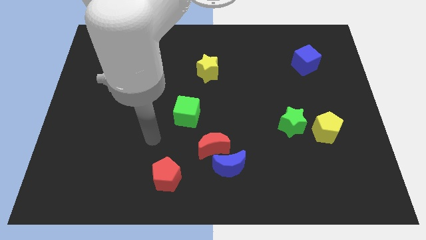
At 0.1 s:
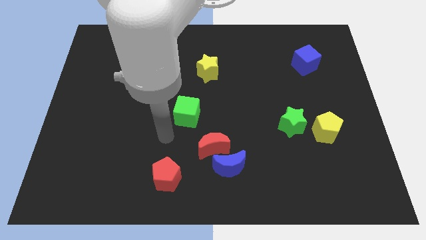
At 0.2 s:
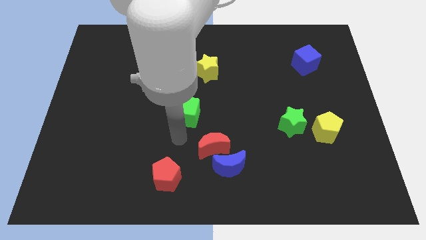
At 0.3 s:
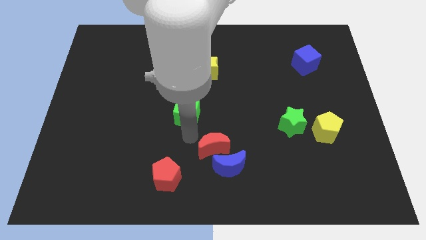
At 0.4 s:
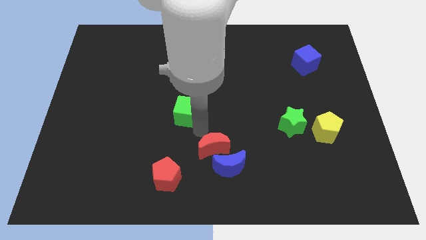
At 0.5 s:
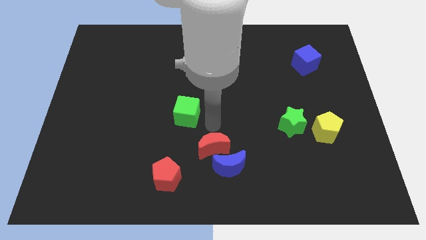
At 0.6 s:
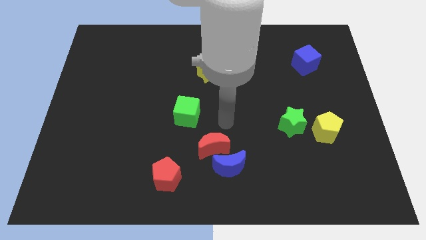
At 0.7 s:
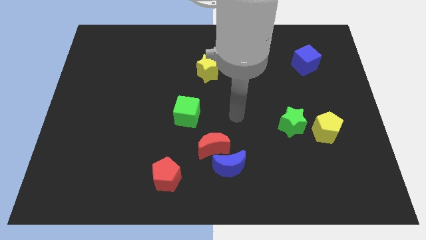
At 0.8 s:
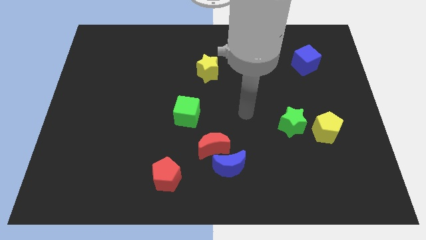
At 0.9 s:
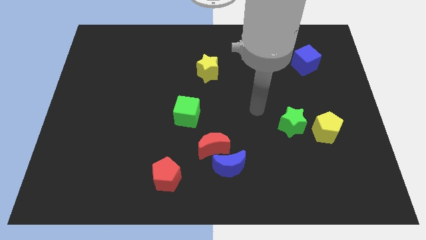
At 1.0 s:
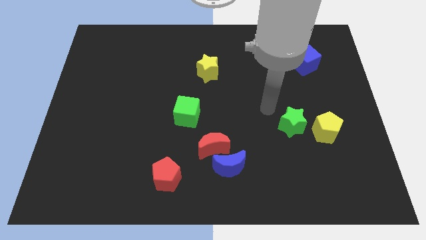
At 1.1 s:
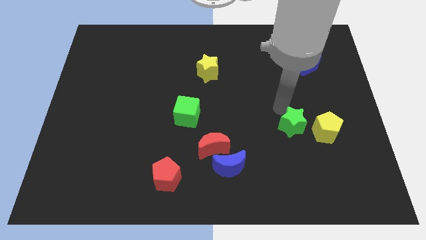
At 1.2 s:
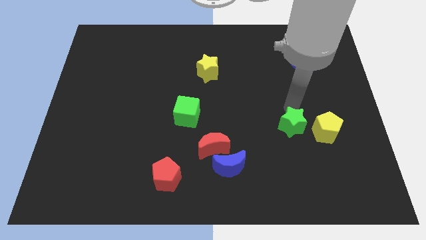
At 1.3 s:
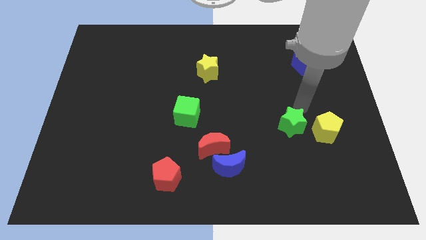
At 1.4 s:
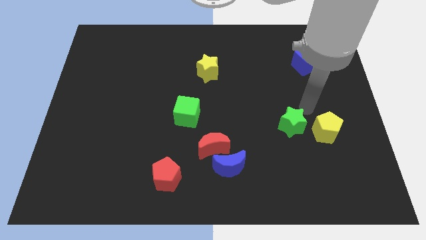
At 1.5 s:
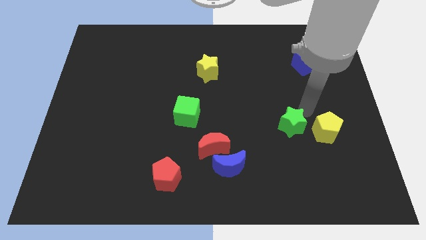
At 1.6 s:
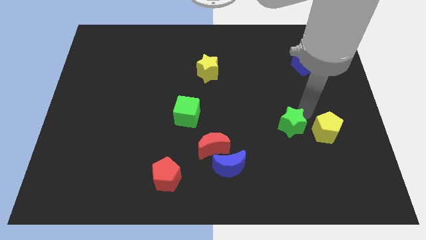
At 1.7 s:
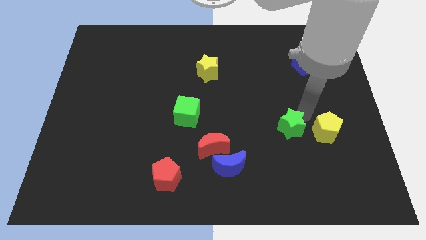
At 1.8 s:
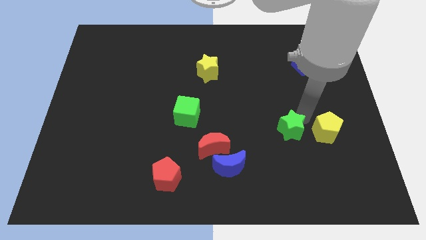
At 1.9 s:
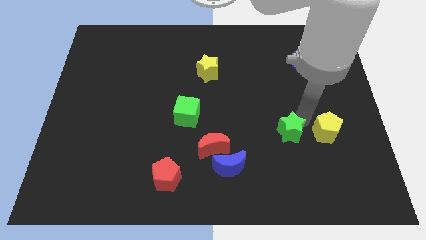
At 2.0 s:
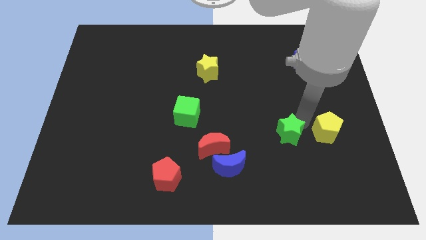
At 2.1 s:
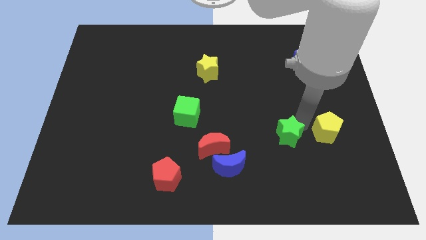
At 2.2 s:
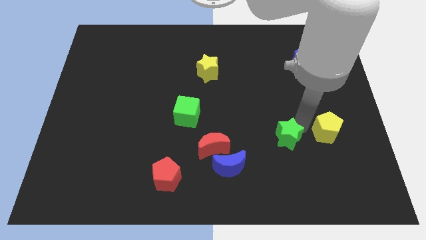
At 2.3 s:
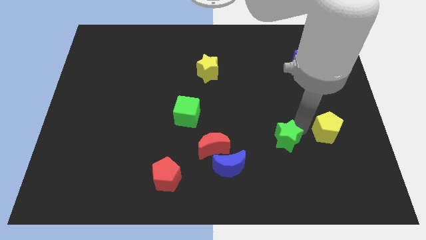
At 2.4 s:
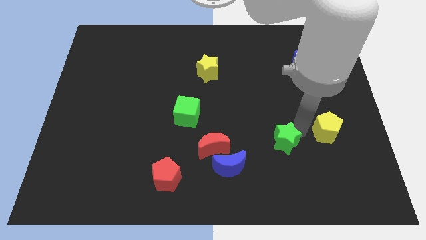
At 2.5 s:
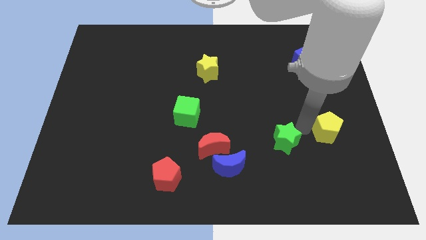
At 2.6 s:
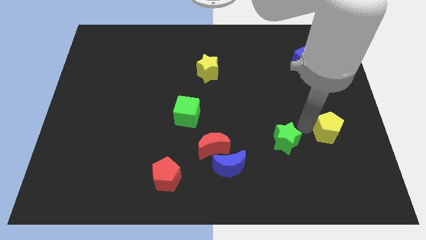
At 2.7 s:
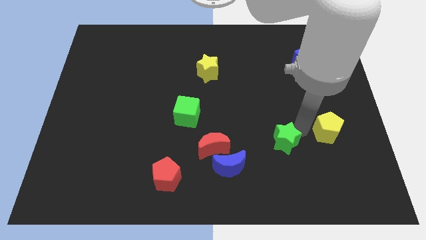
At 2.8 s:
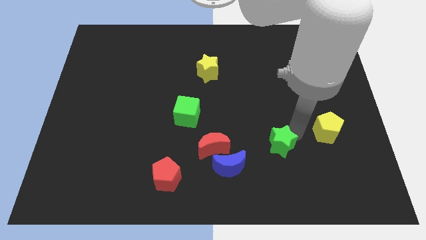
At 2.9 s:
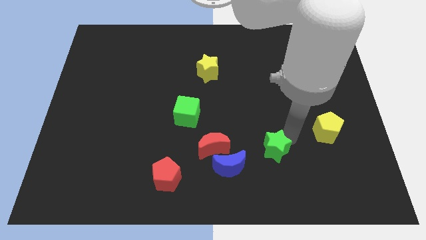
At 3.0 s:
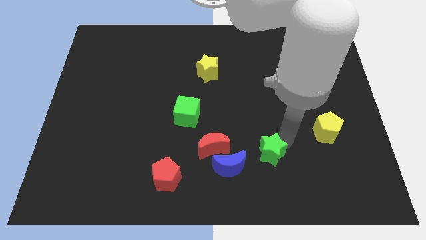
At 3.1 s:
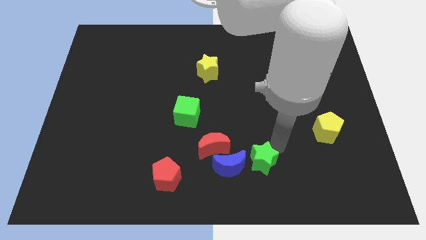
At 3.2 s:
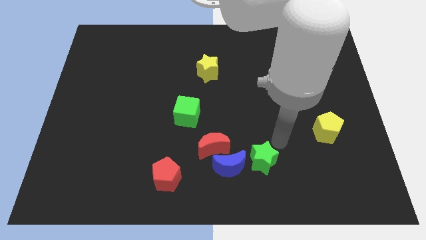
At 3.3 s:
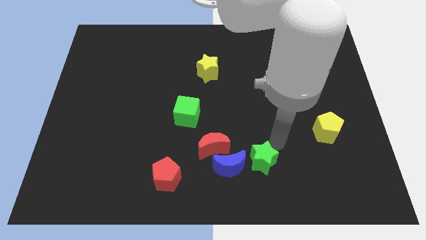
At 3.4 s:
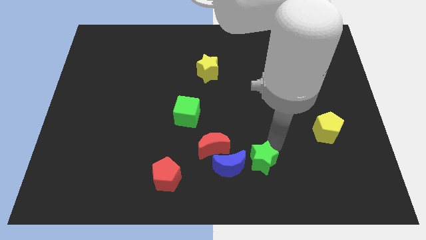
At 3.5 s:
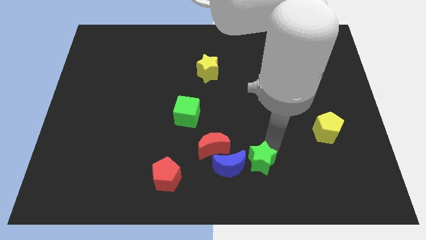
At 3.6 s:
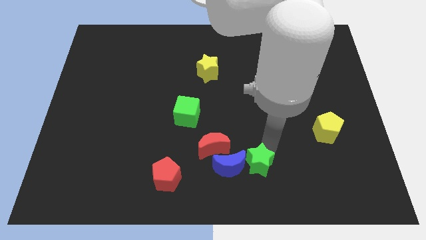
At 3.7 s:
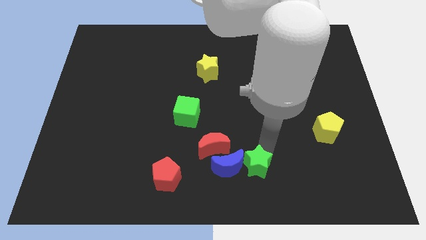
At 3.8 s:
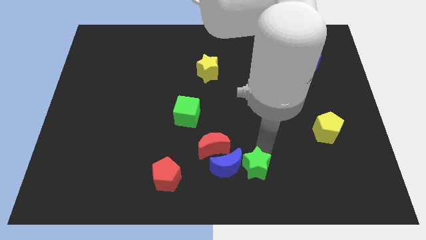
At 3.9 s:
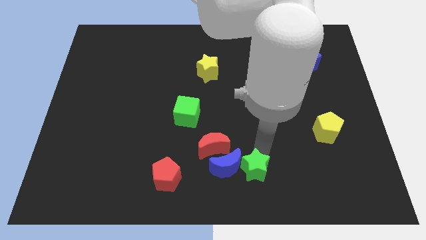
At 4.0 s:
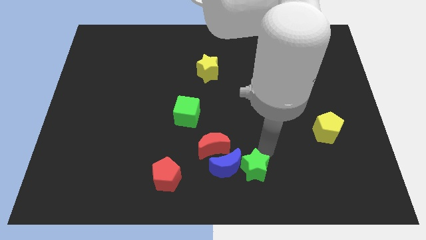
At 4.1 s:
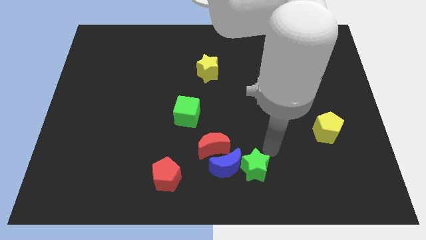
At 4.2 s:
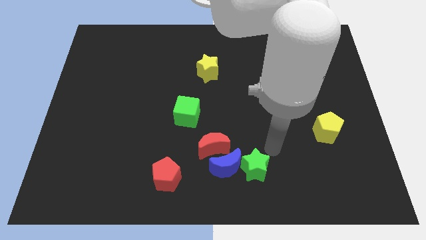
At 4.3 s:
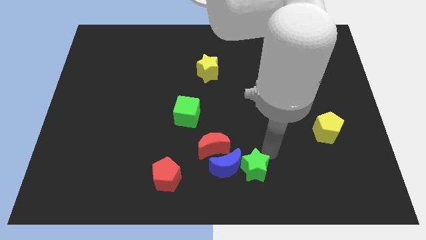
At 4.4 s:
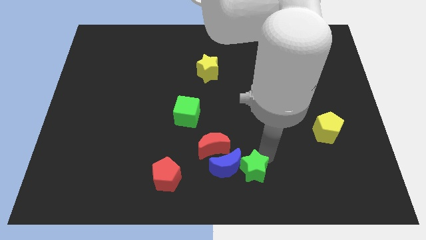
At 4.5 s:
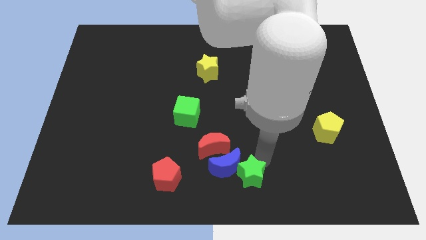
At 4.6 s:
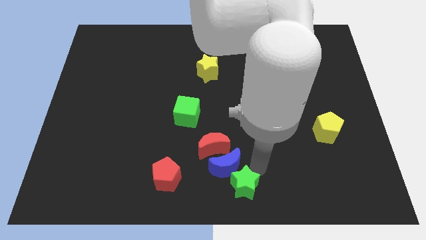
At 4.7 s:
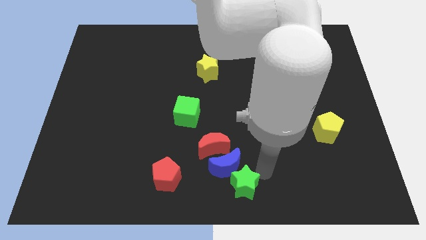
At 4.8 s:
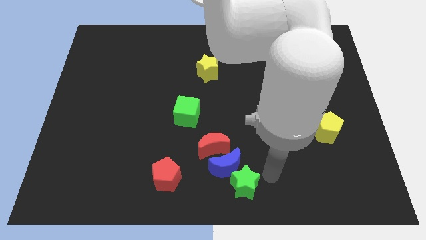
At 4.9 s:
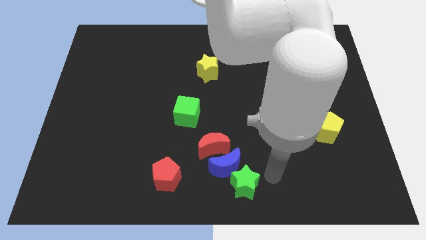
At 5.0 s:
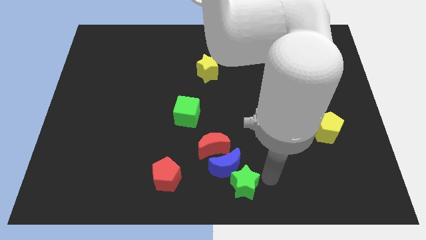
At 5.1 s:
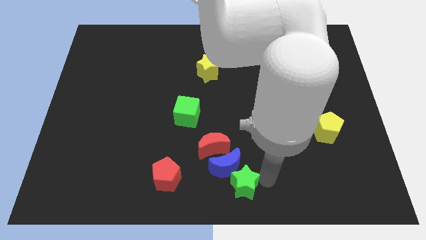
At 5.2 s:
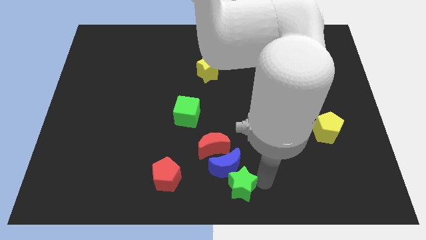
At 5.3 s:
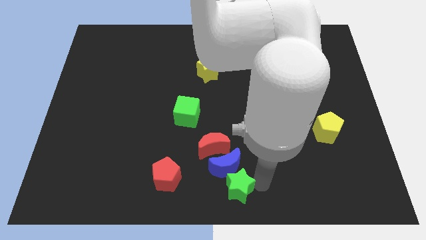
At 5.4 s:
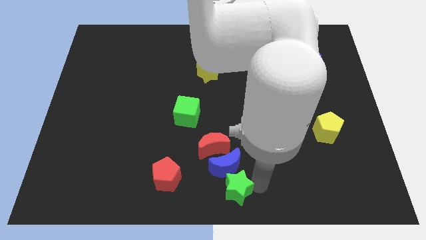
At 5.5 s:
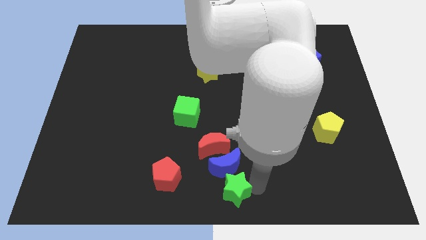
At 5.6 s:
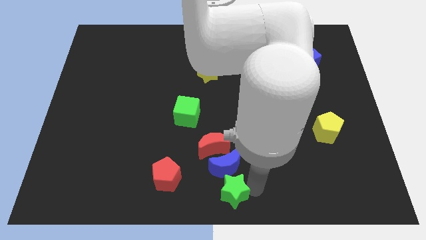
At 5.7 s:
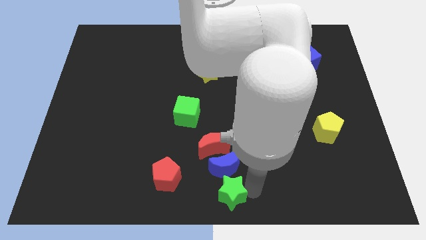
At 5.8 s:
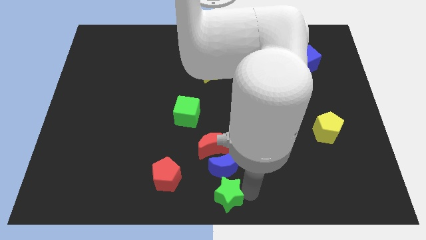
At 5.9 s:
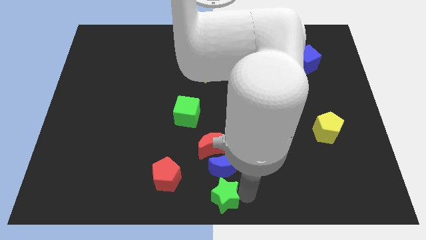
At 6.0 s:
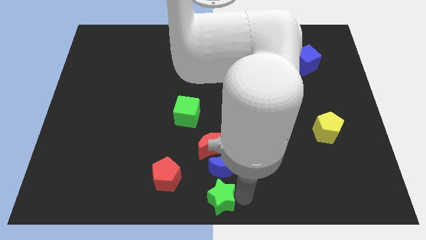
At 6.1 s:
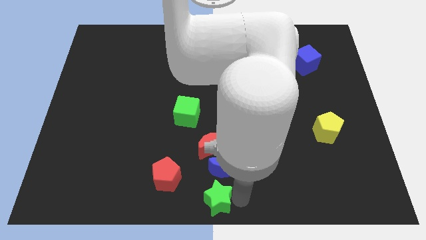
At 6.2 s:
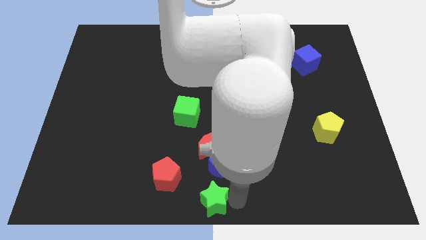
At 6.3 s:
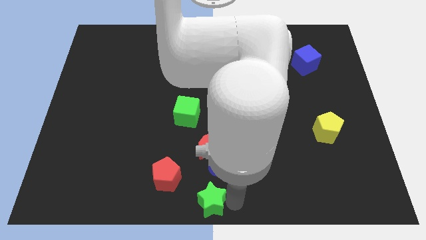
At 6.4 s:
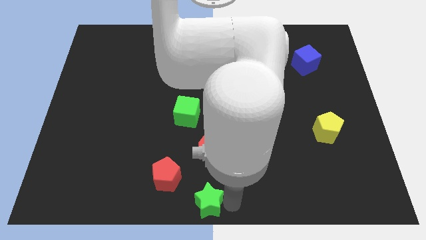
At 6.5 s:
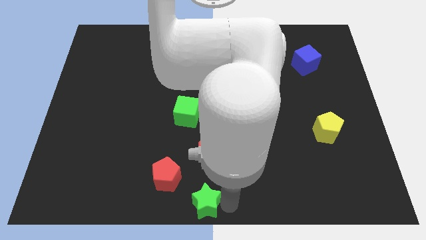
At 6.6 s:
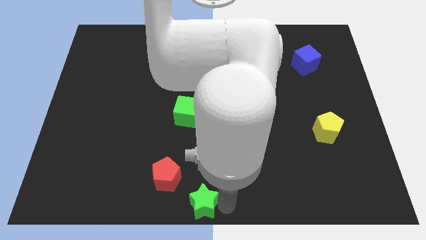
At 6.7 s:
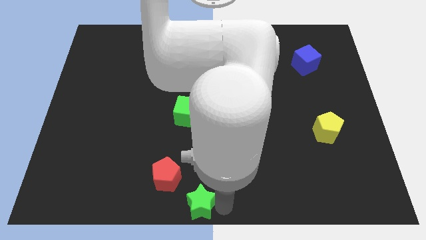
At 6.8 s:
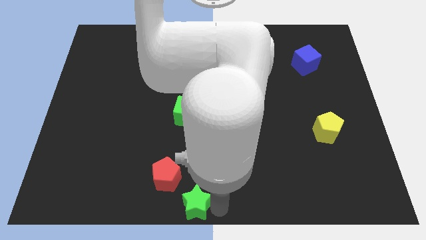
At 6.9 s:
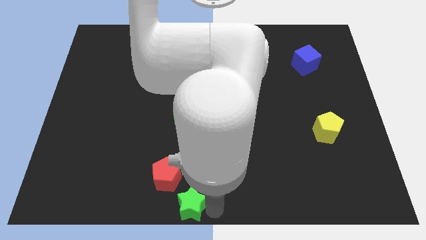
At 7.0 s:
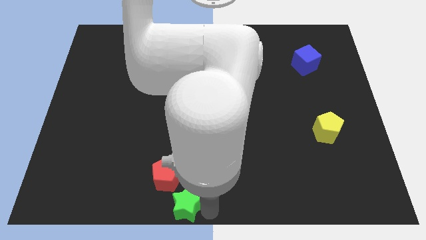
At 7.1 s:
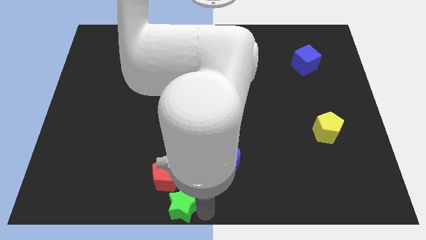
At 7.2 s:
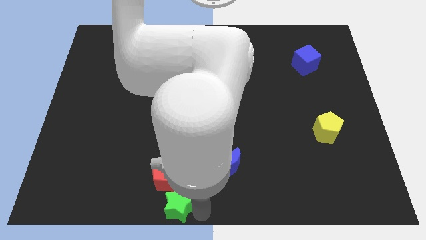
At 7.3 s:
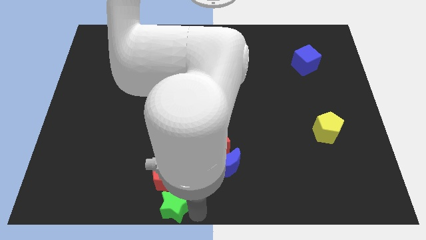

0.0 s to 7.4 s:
slide the green star close to the red pentagon

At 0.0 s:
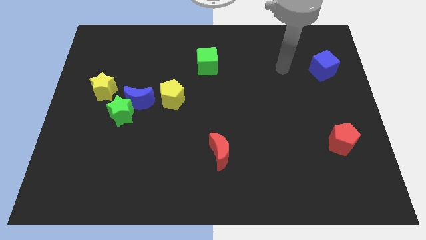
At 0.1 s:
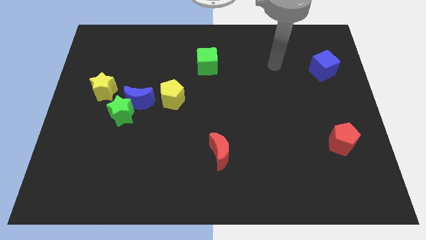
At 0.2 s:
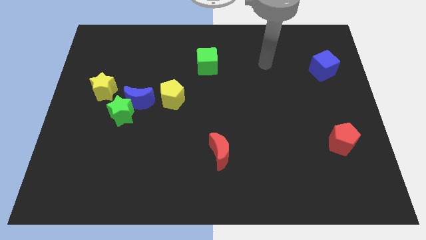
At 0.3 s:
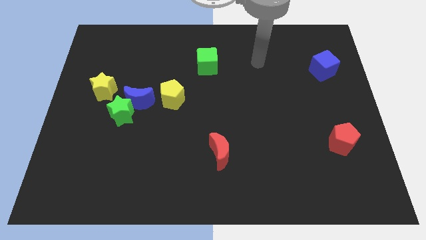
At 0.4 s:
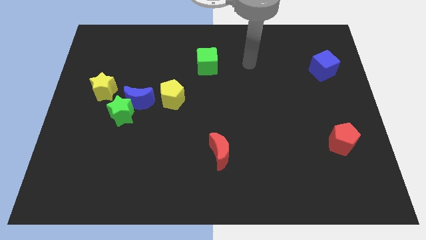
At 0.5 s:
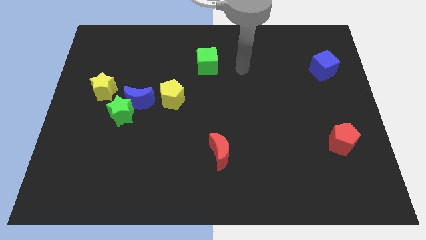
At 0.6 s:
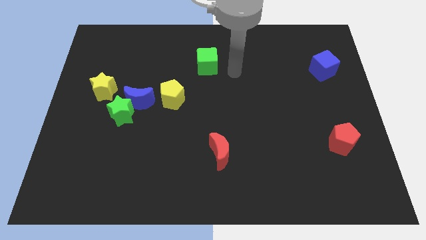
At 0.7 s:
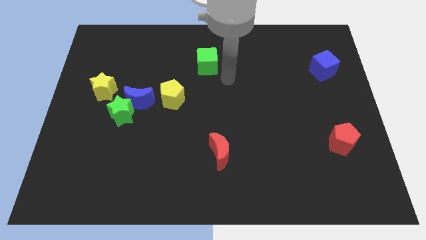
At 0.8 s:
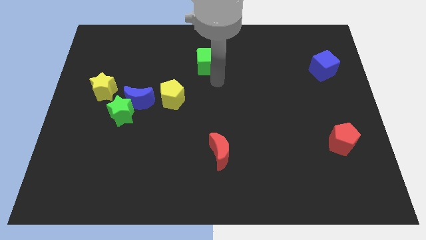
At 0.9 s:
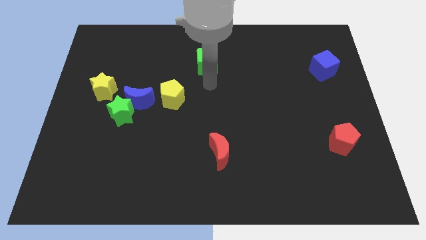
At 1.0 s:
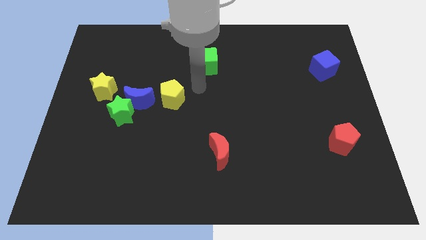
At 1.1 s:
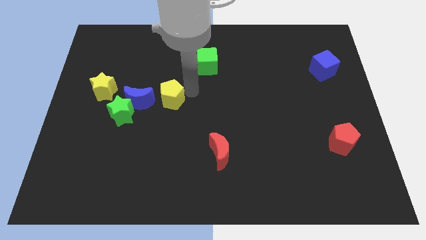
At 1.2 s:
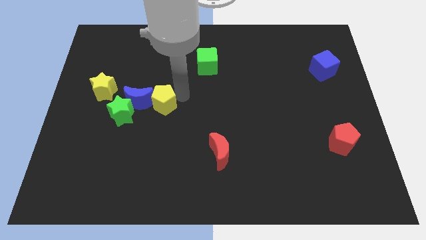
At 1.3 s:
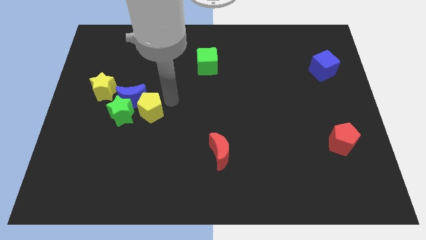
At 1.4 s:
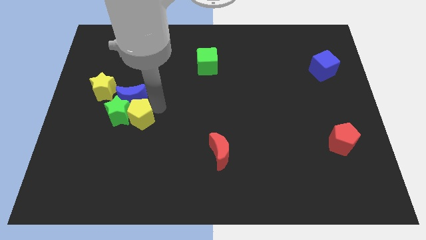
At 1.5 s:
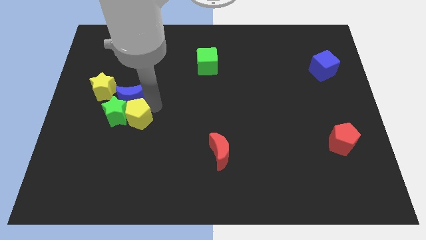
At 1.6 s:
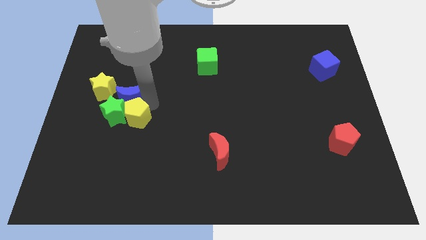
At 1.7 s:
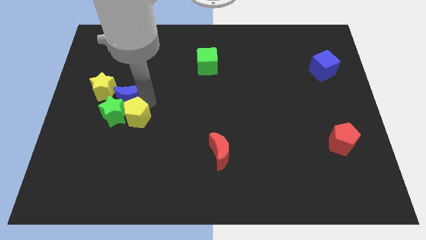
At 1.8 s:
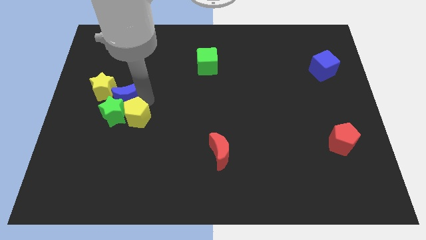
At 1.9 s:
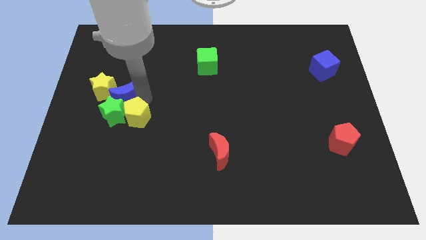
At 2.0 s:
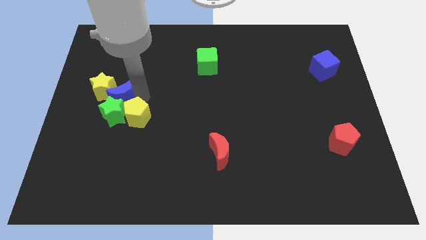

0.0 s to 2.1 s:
push the blue moon towards the yellow star
